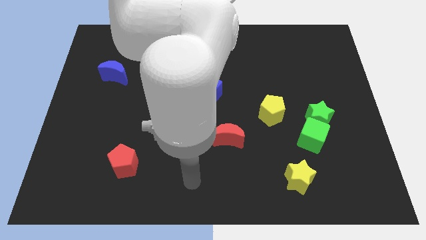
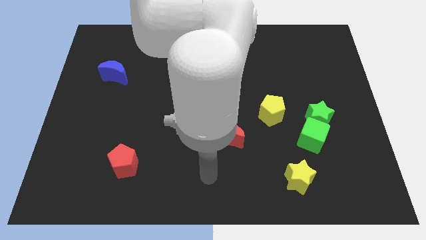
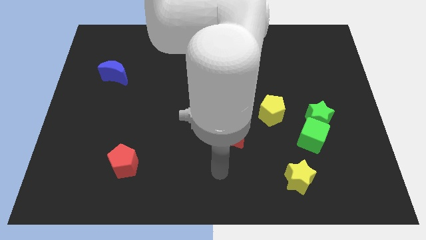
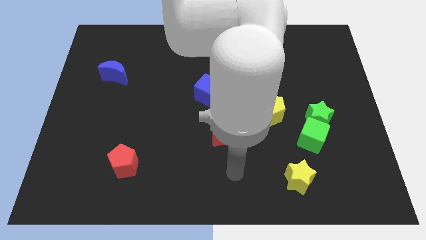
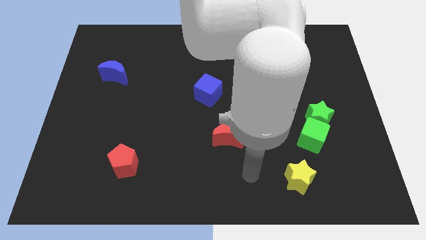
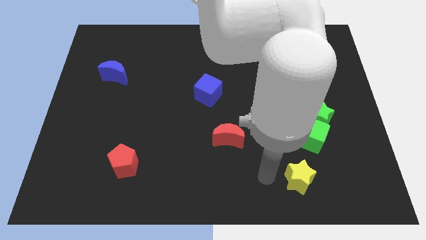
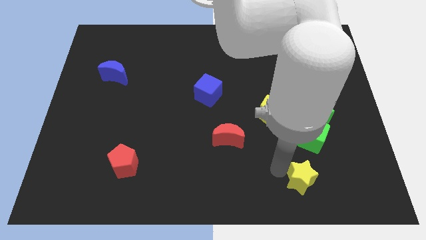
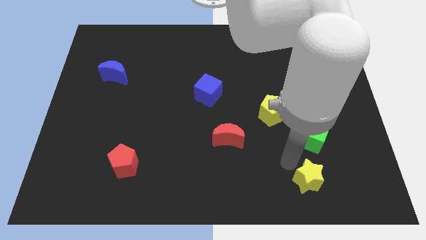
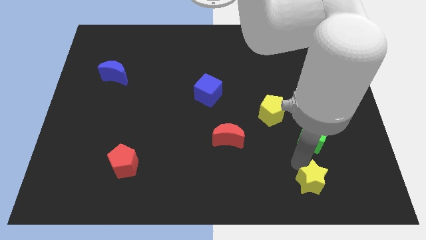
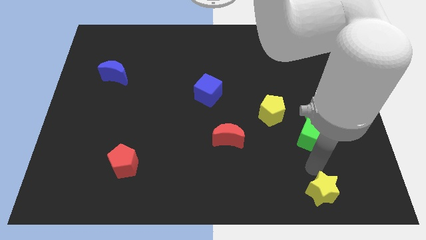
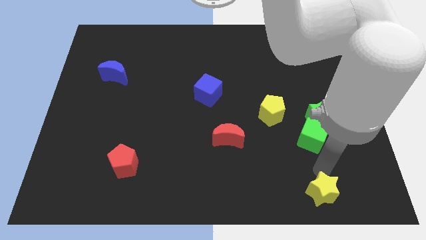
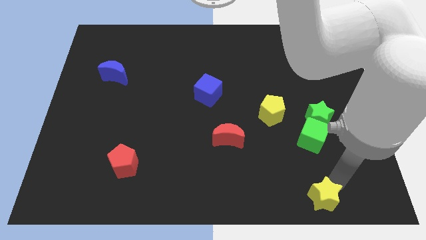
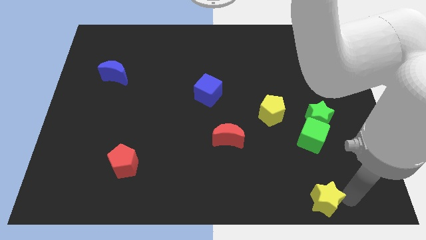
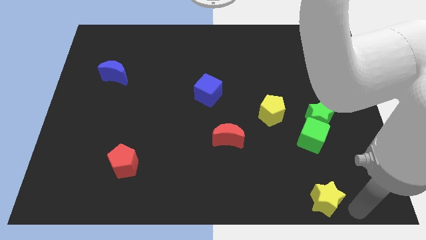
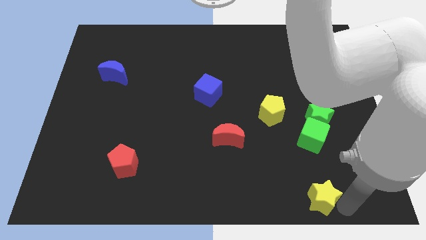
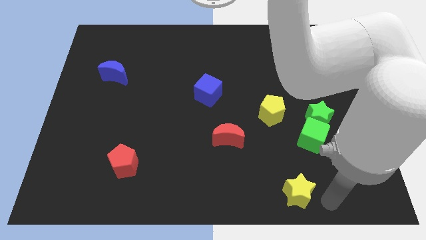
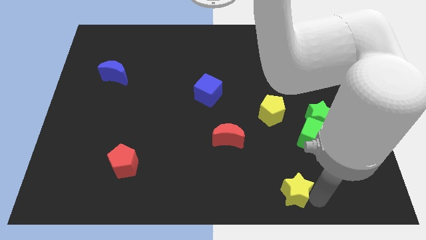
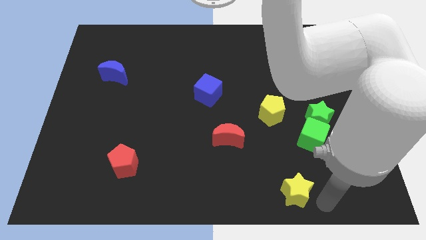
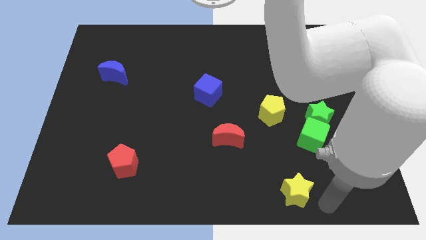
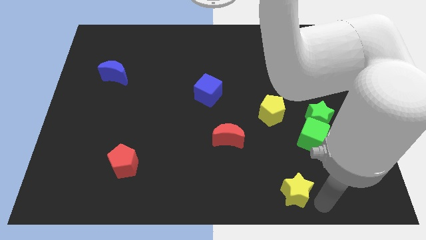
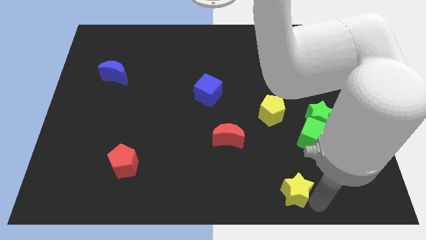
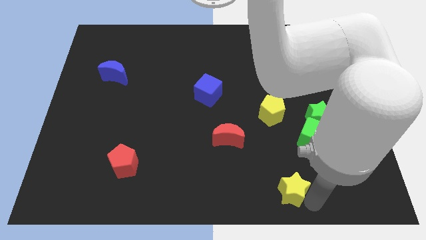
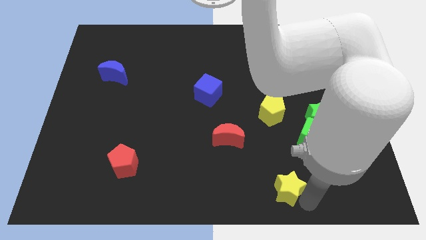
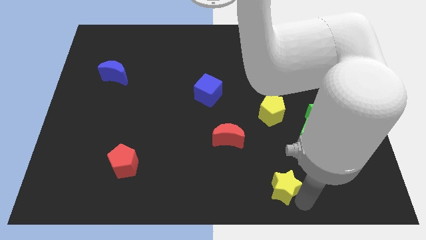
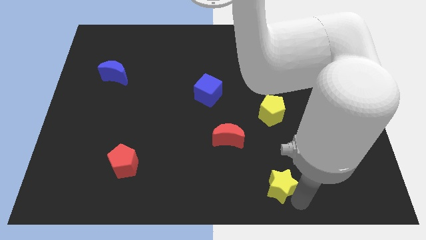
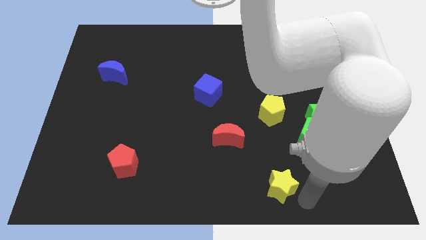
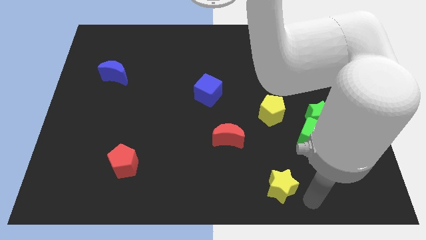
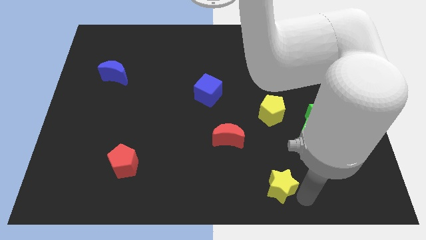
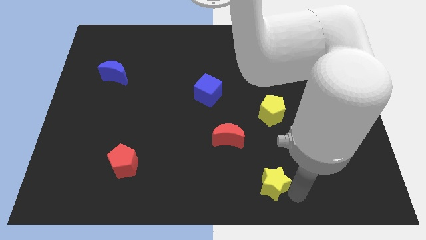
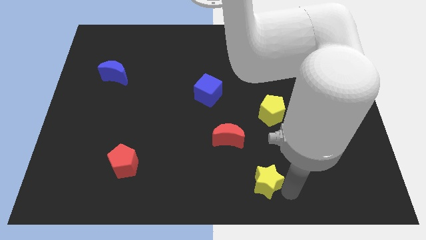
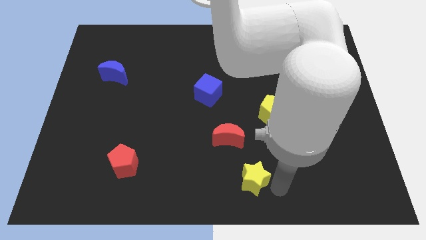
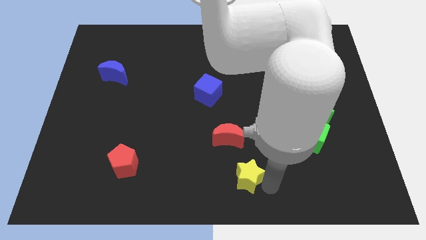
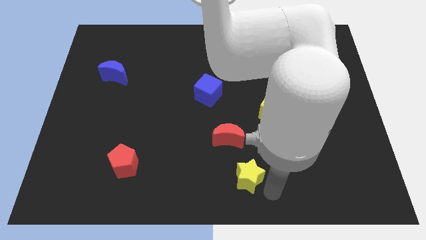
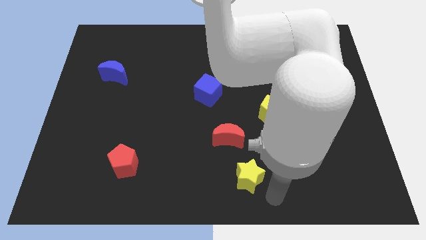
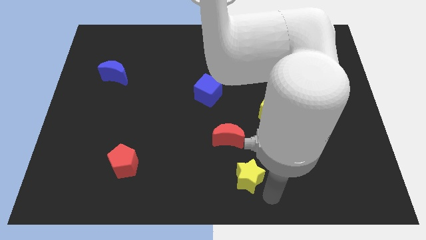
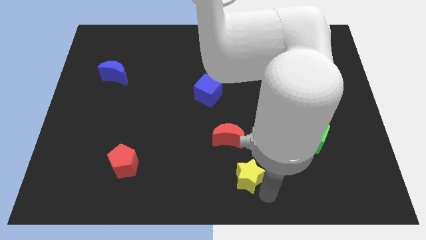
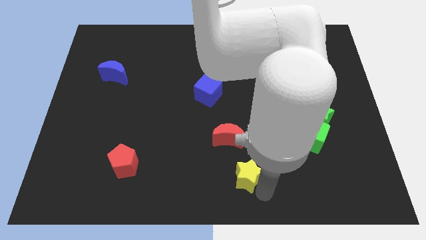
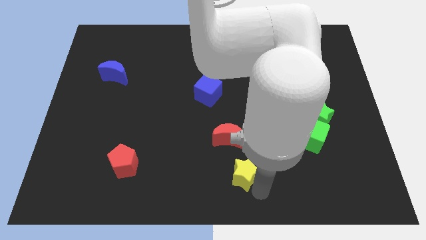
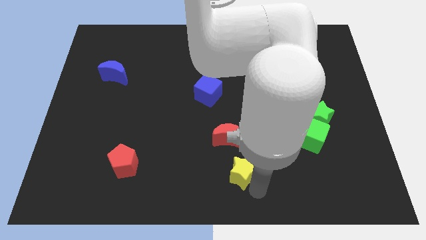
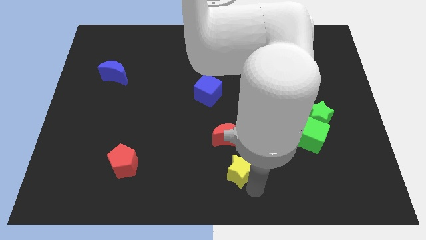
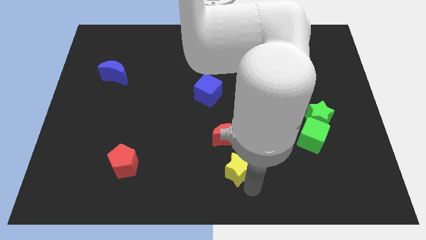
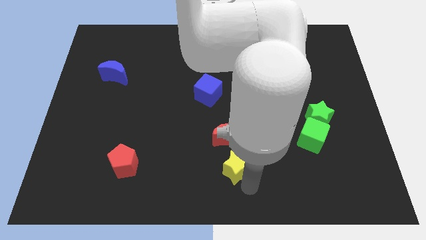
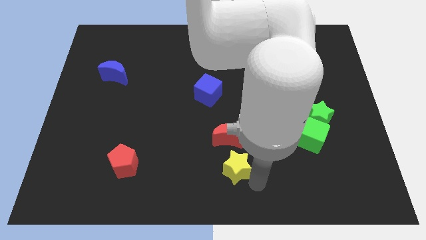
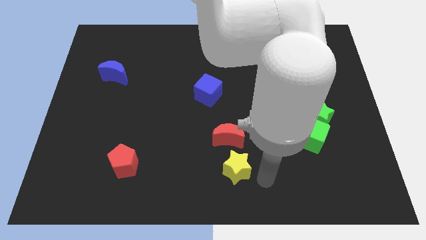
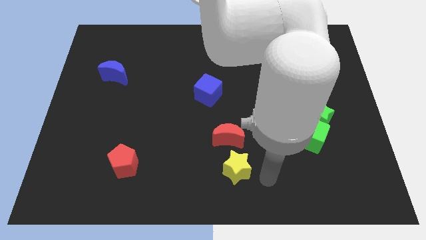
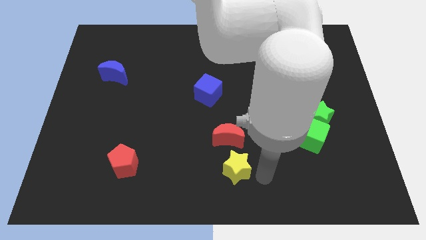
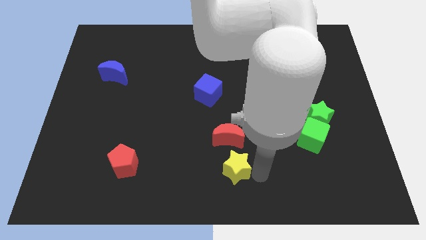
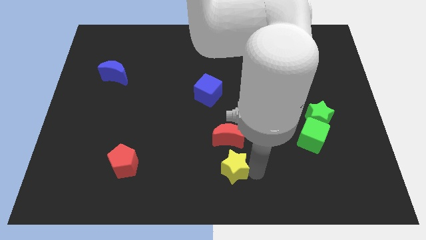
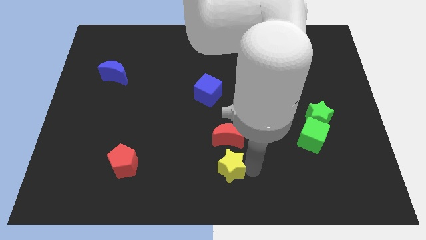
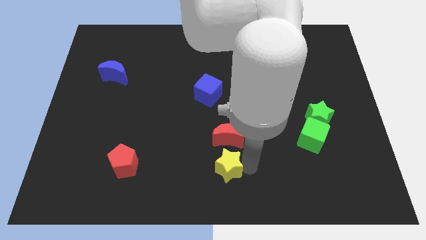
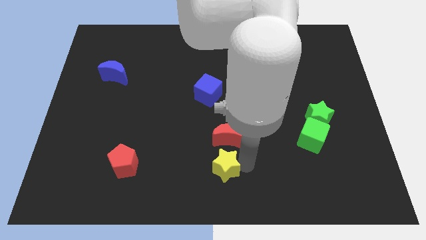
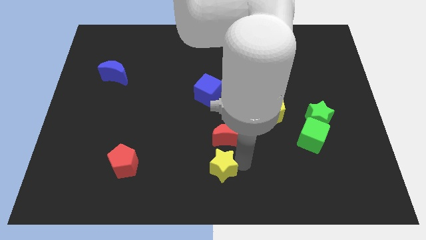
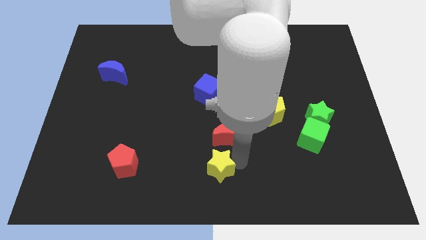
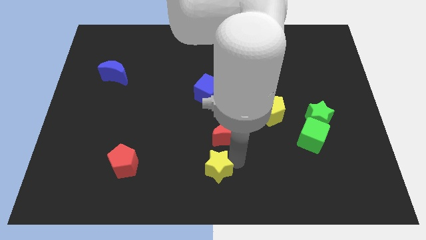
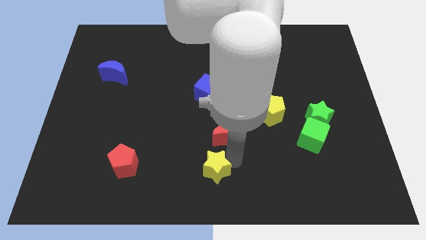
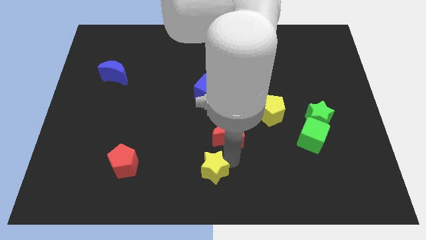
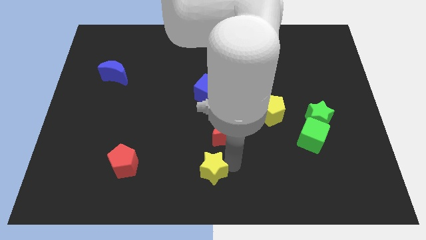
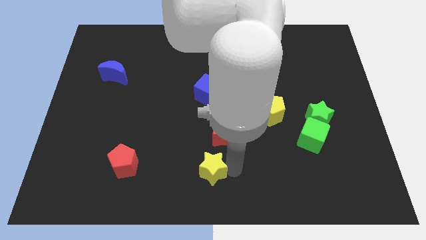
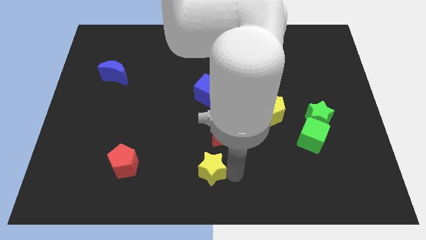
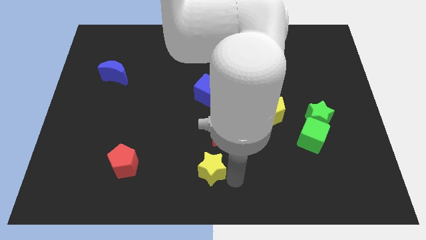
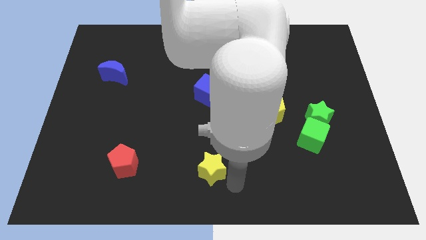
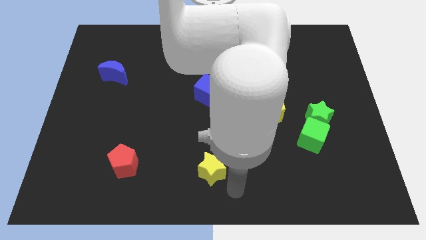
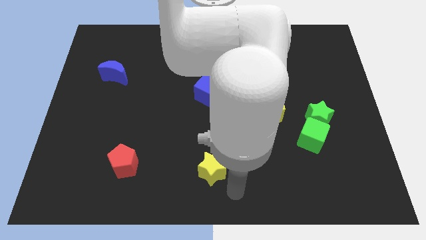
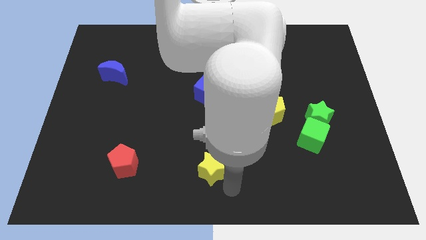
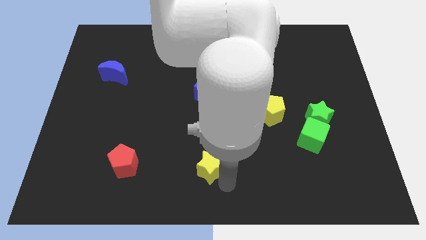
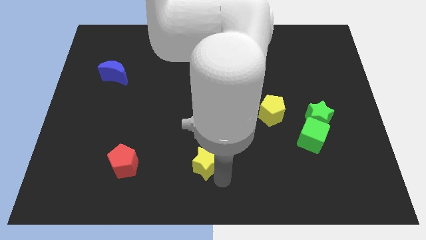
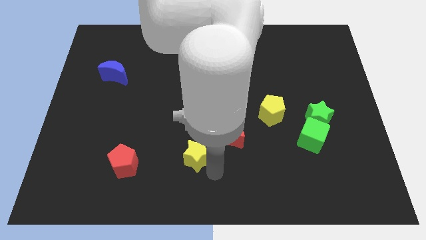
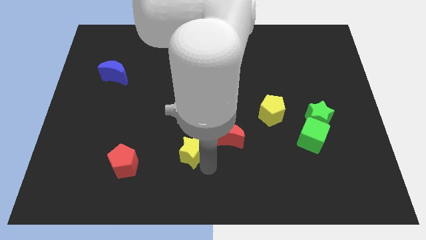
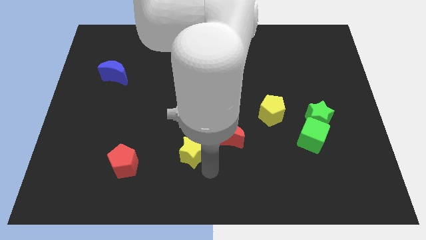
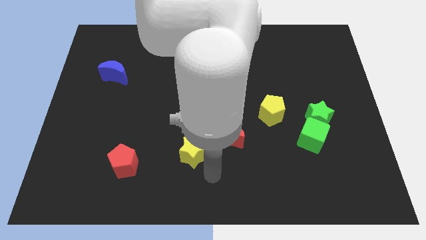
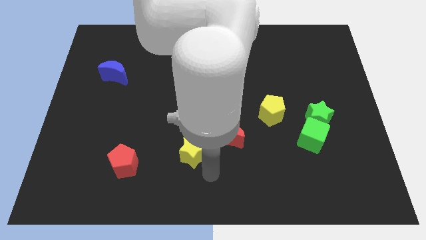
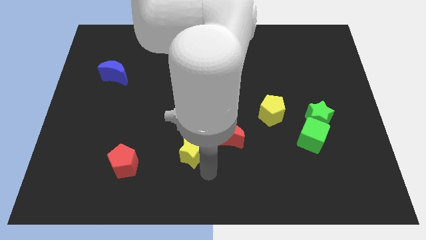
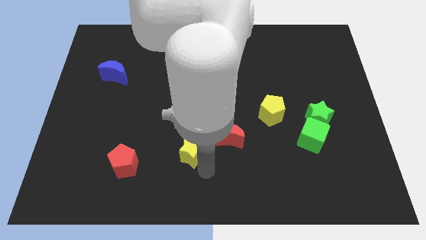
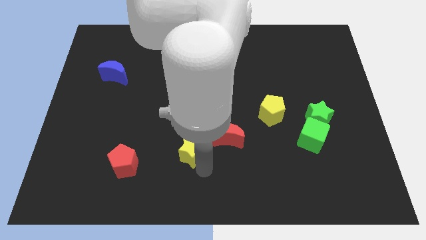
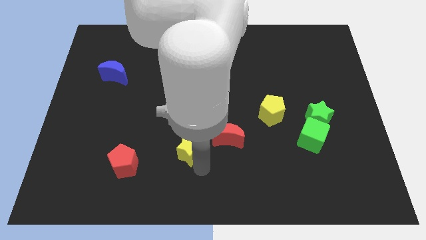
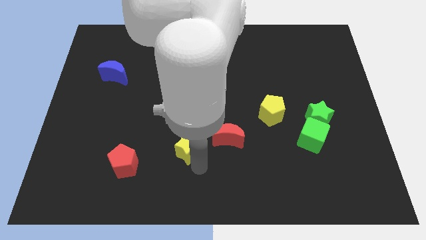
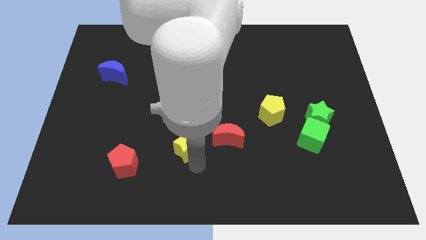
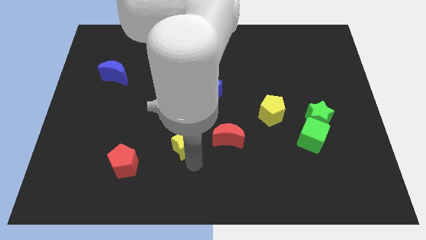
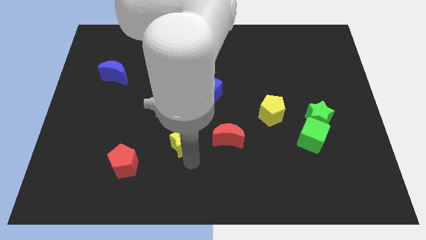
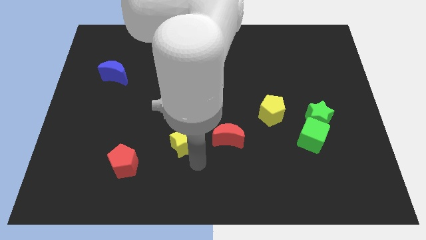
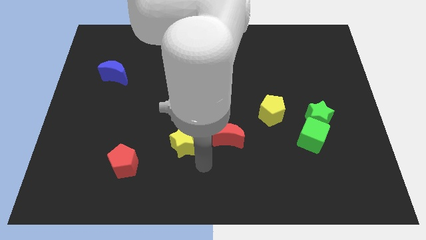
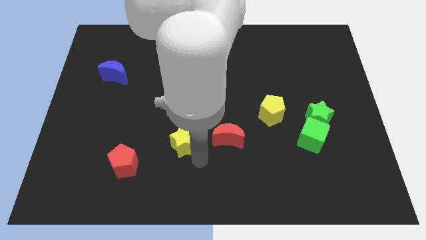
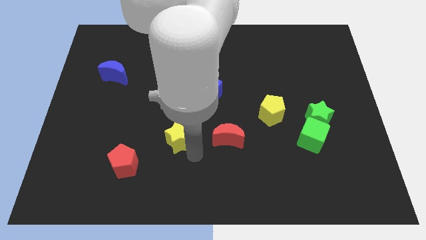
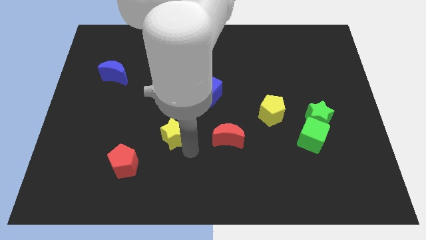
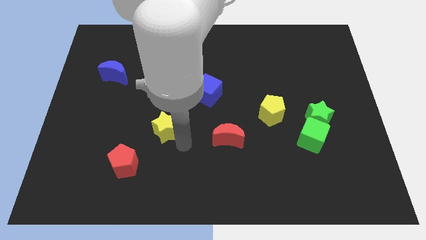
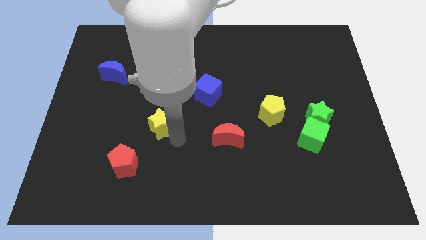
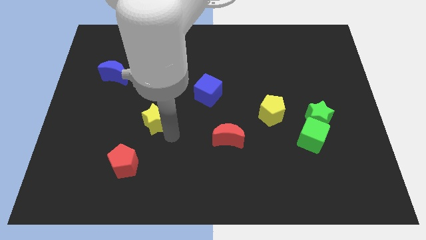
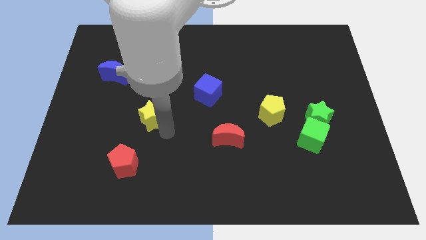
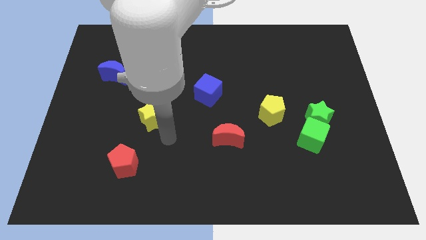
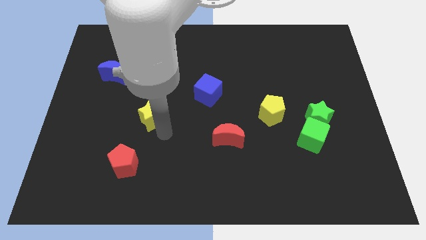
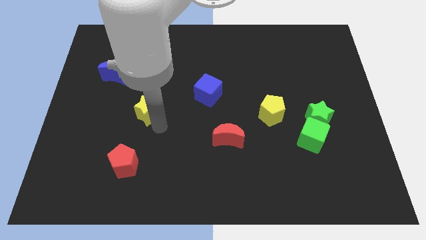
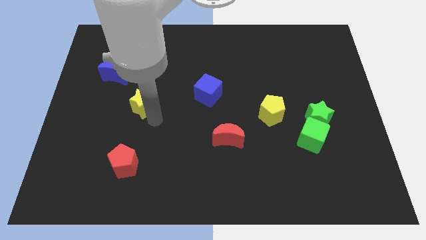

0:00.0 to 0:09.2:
move the yellow star diagonally down and to the right of the blue moon
